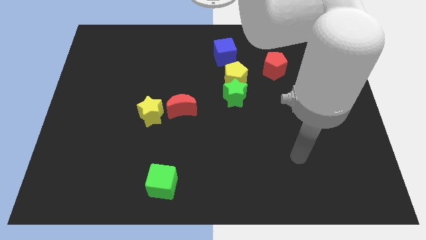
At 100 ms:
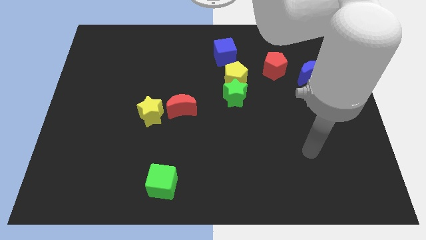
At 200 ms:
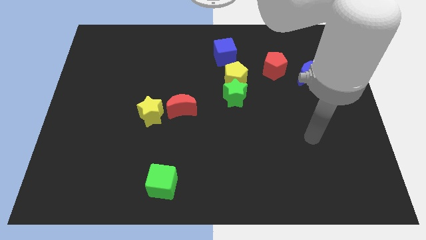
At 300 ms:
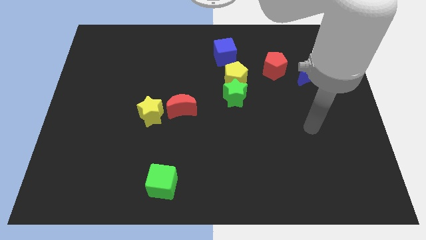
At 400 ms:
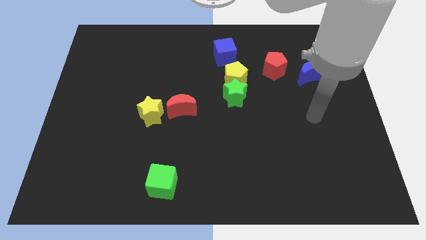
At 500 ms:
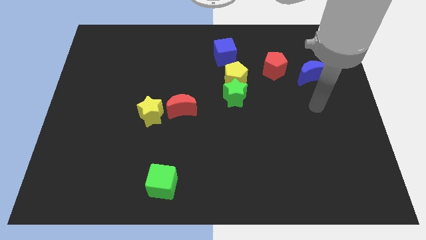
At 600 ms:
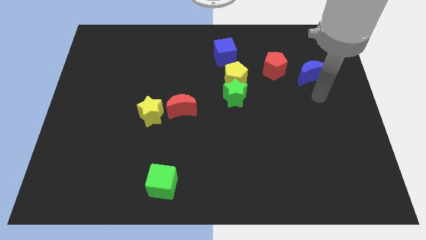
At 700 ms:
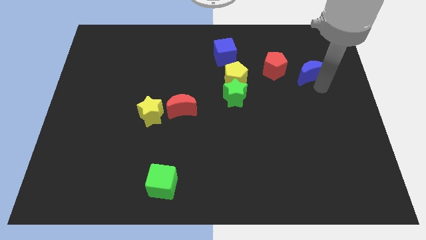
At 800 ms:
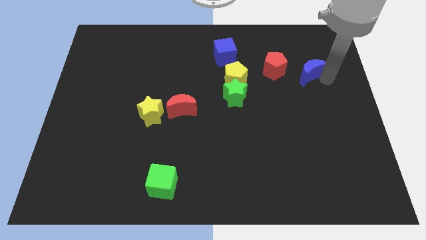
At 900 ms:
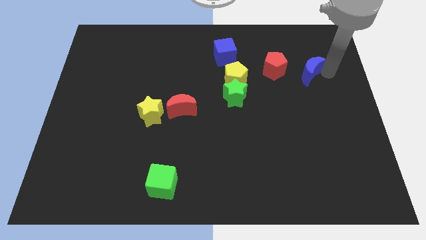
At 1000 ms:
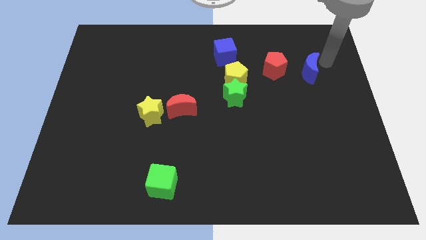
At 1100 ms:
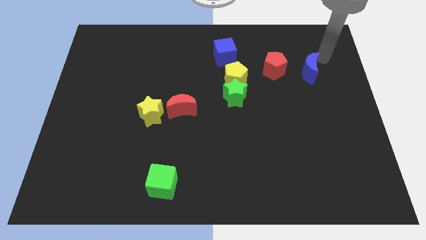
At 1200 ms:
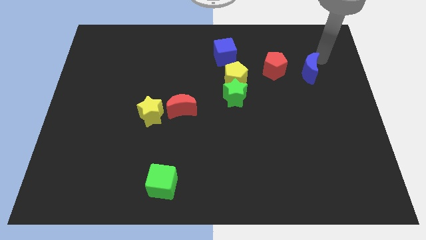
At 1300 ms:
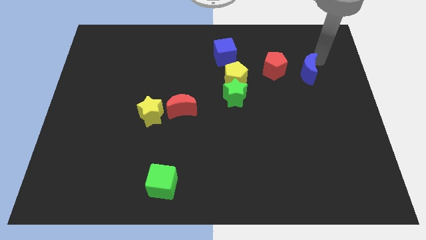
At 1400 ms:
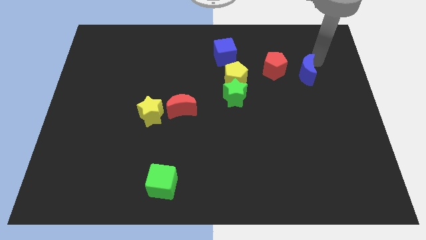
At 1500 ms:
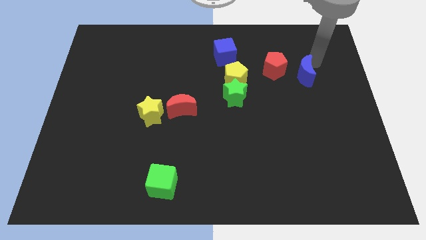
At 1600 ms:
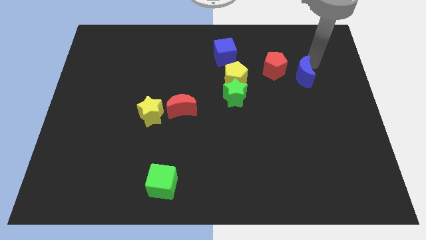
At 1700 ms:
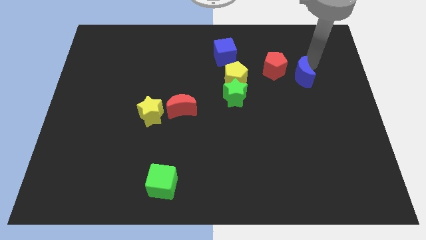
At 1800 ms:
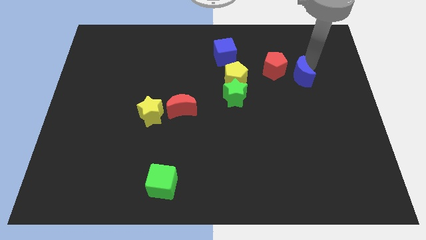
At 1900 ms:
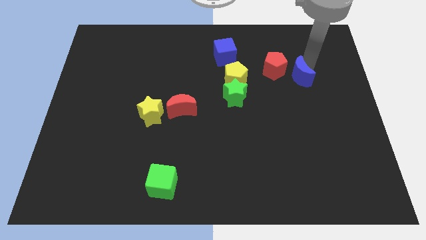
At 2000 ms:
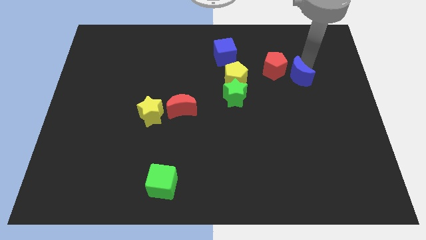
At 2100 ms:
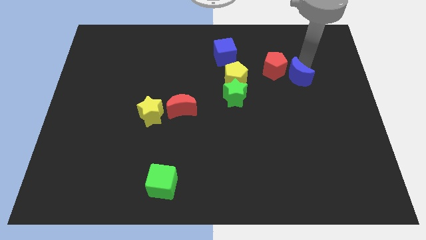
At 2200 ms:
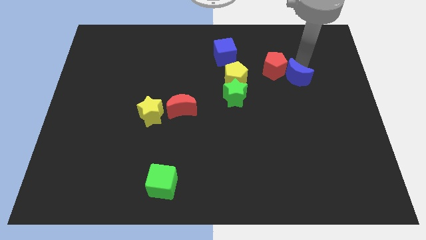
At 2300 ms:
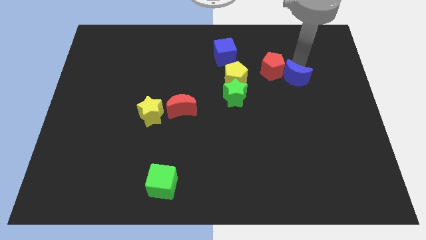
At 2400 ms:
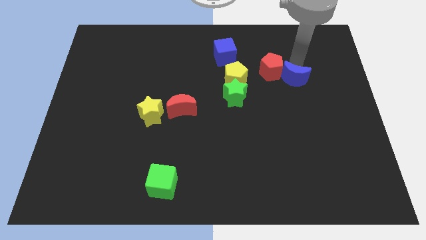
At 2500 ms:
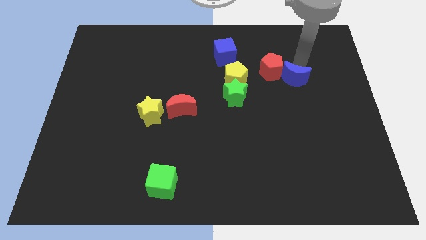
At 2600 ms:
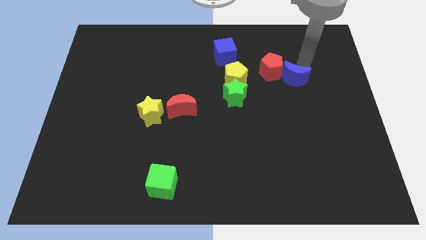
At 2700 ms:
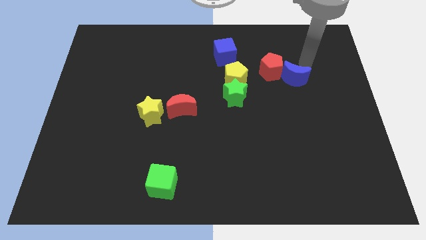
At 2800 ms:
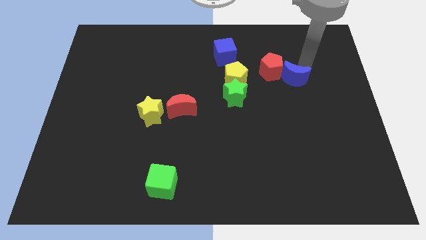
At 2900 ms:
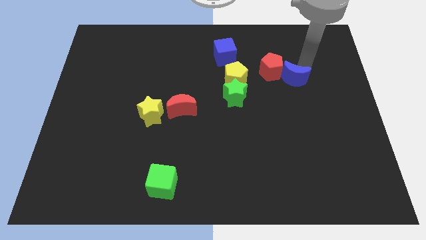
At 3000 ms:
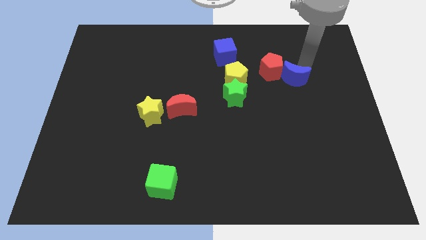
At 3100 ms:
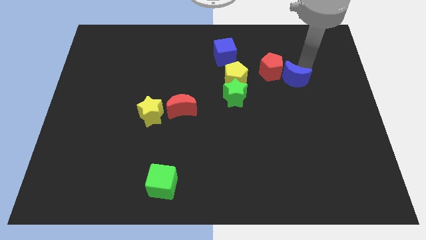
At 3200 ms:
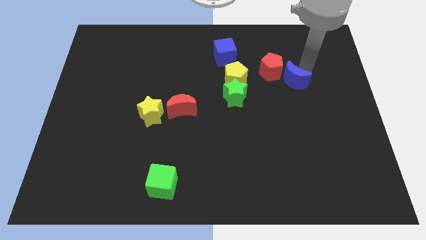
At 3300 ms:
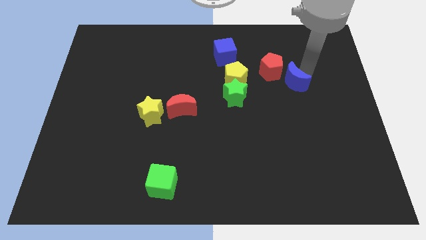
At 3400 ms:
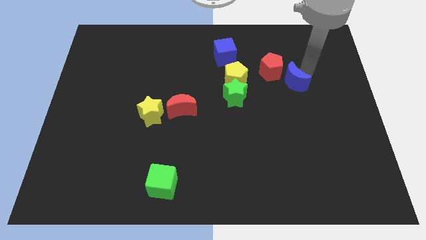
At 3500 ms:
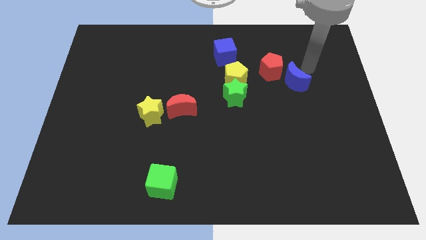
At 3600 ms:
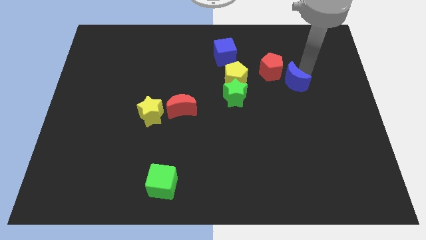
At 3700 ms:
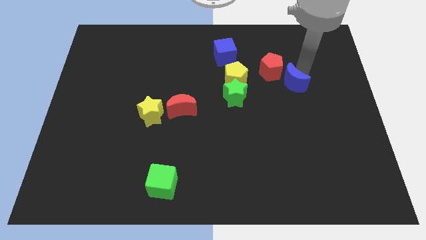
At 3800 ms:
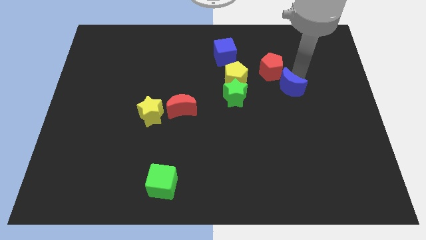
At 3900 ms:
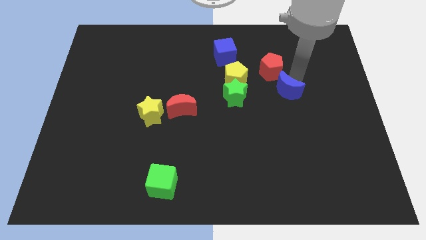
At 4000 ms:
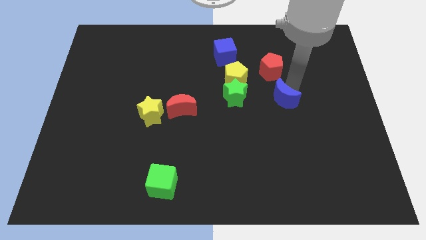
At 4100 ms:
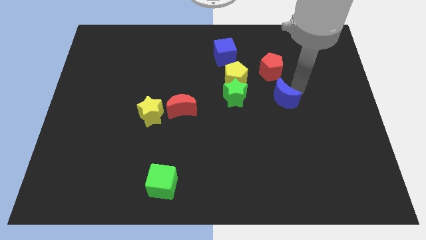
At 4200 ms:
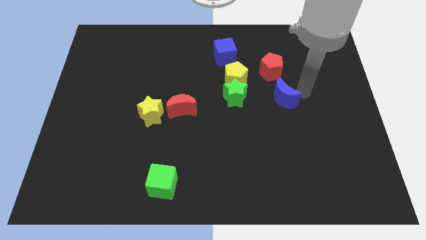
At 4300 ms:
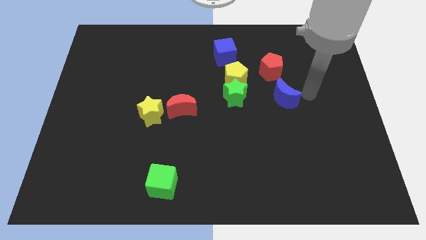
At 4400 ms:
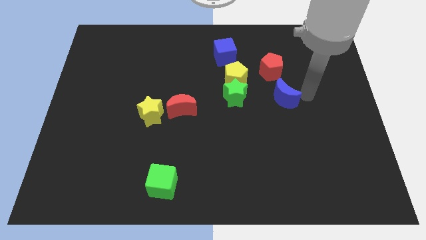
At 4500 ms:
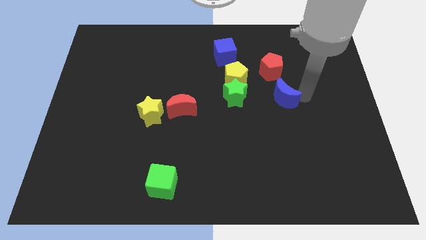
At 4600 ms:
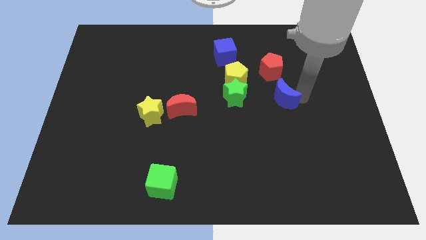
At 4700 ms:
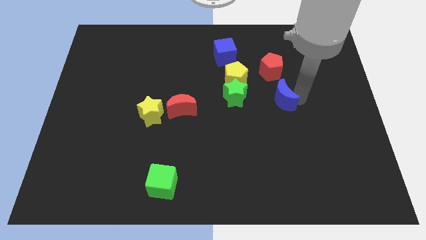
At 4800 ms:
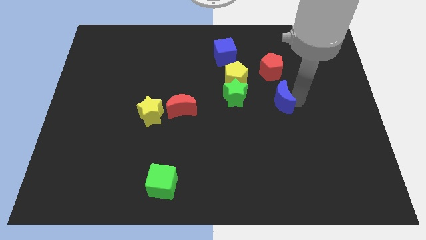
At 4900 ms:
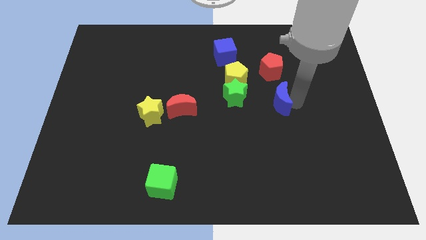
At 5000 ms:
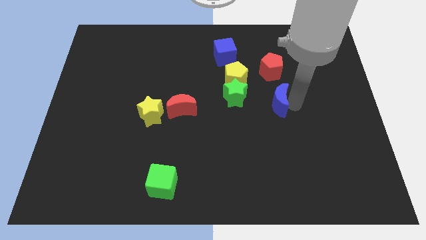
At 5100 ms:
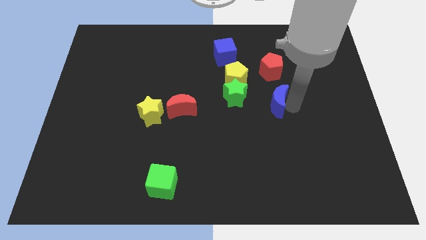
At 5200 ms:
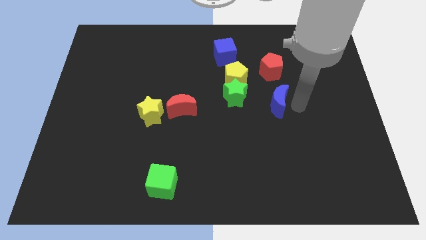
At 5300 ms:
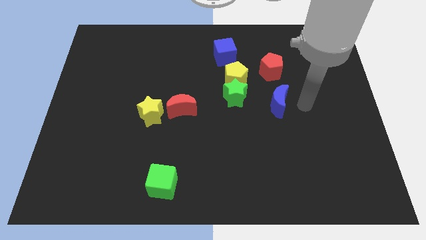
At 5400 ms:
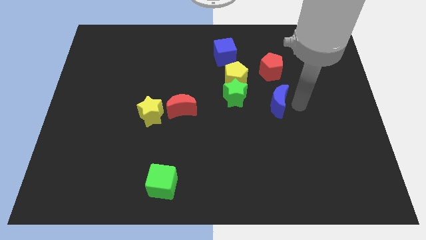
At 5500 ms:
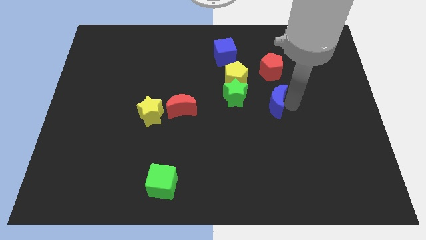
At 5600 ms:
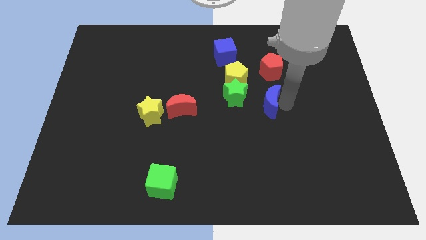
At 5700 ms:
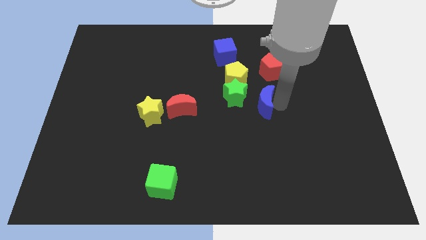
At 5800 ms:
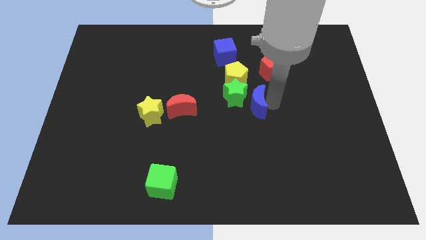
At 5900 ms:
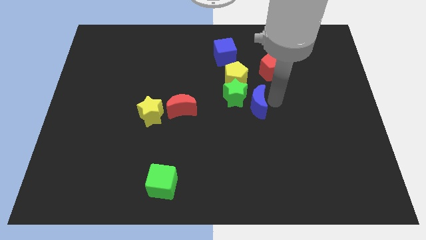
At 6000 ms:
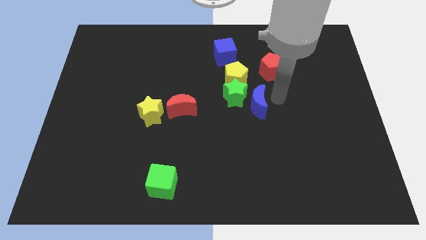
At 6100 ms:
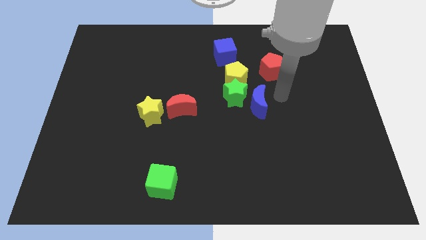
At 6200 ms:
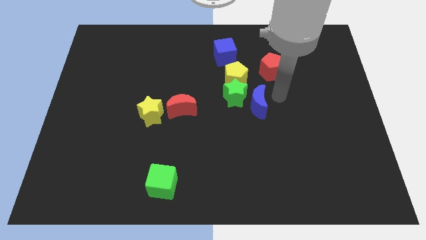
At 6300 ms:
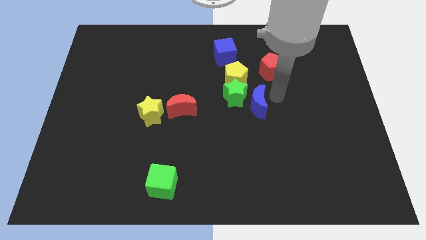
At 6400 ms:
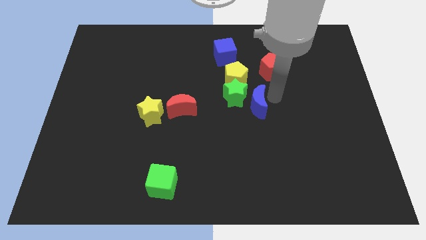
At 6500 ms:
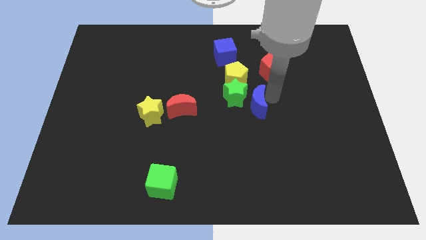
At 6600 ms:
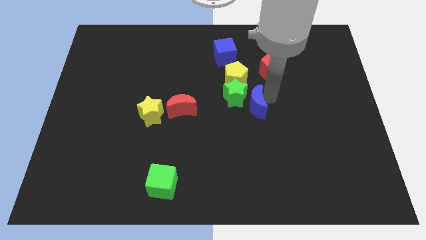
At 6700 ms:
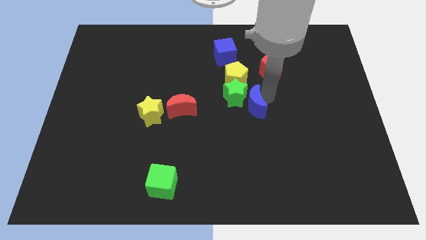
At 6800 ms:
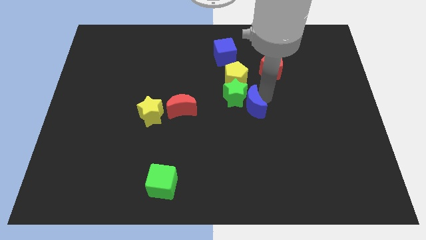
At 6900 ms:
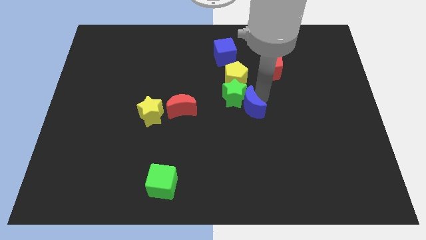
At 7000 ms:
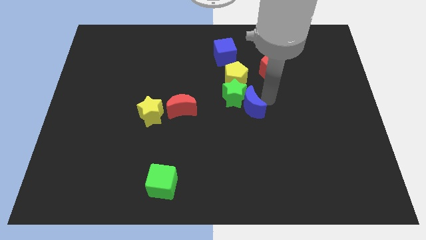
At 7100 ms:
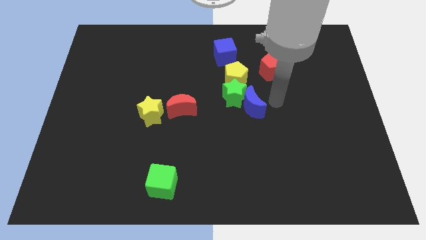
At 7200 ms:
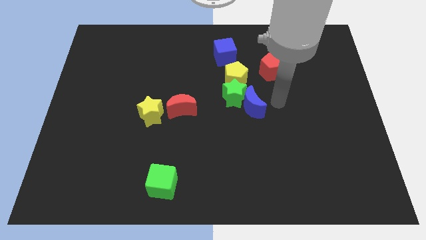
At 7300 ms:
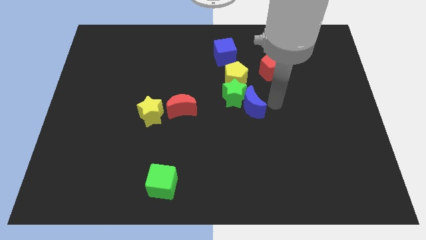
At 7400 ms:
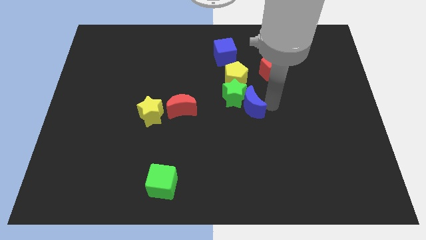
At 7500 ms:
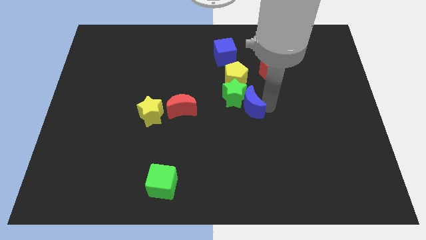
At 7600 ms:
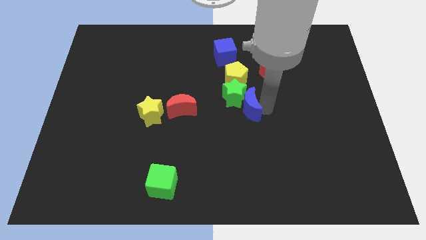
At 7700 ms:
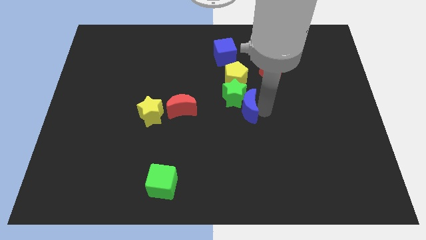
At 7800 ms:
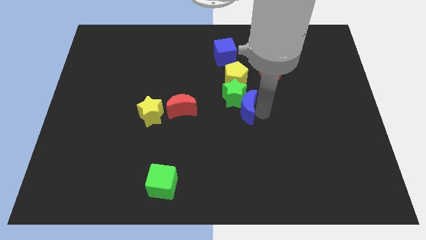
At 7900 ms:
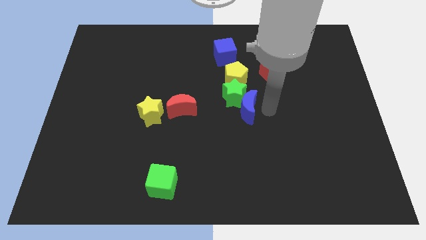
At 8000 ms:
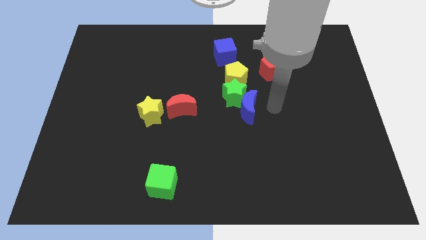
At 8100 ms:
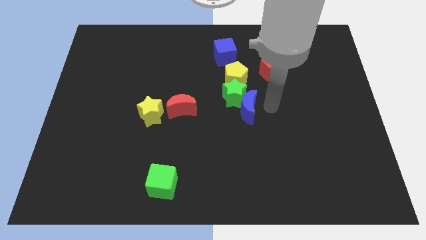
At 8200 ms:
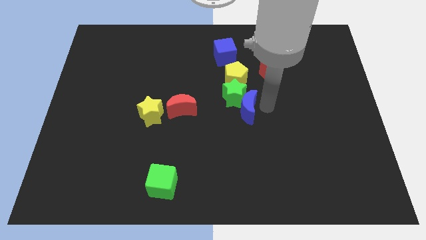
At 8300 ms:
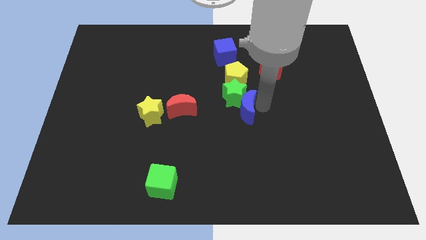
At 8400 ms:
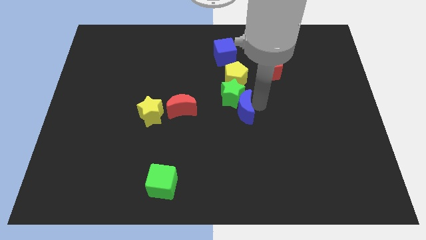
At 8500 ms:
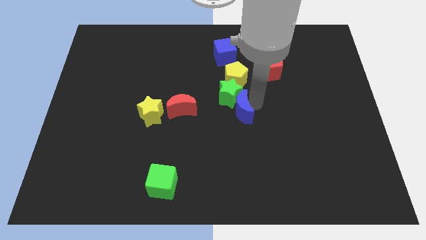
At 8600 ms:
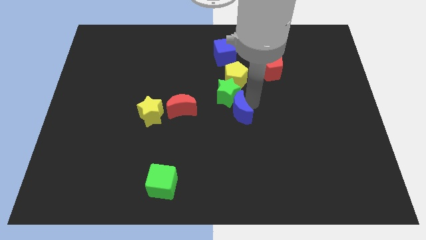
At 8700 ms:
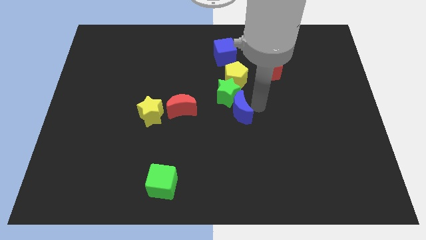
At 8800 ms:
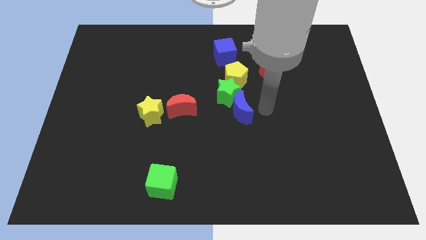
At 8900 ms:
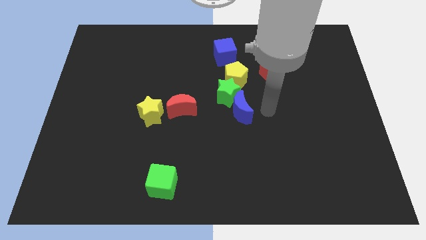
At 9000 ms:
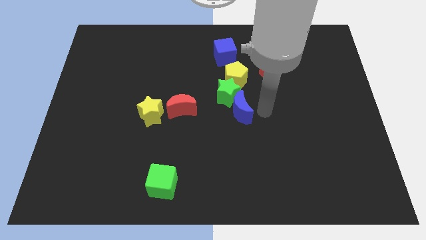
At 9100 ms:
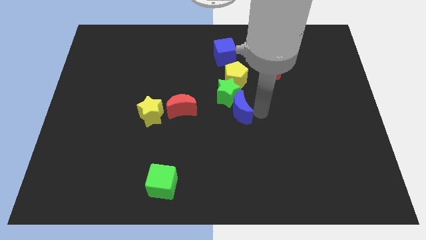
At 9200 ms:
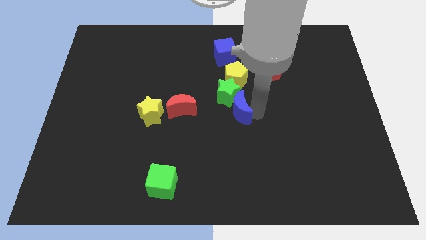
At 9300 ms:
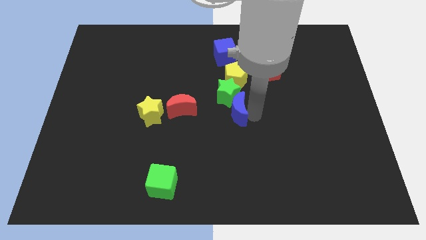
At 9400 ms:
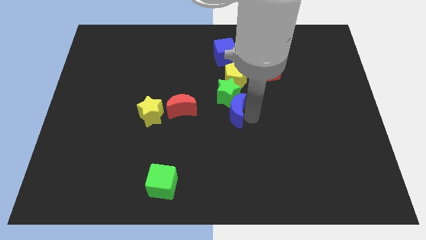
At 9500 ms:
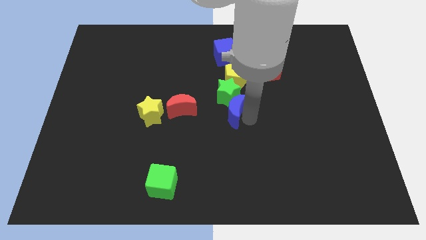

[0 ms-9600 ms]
put the blue moon diagonally down and to the left of the green star
